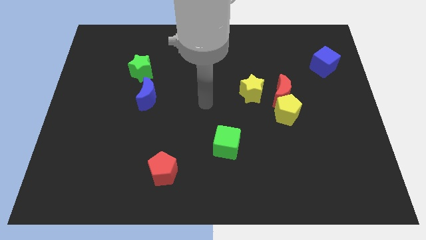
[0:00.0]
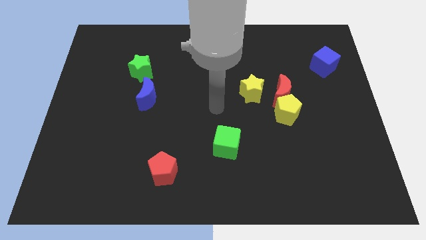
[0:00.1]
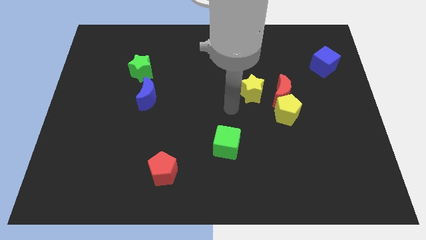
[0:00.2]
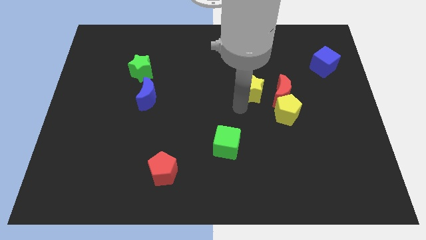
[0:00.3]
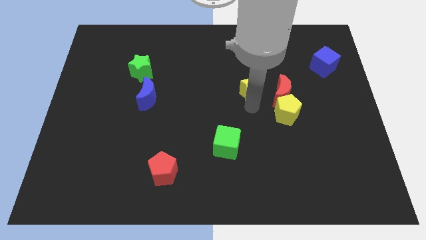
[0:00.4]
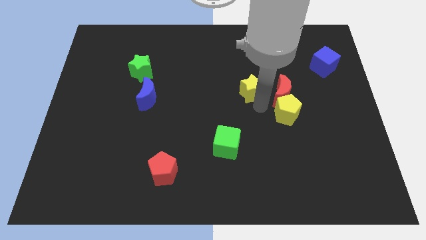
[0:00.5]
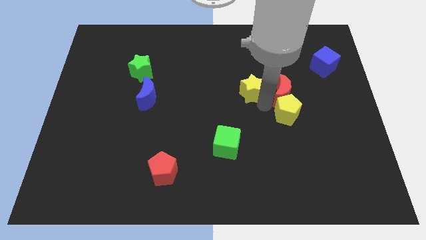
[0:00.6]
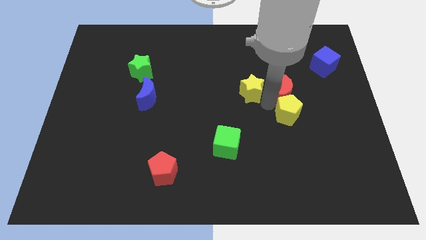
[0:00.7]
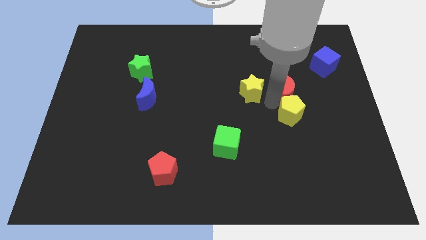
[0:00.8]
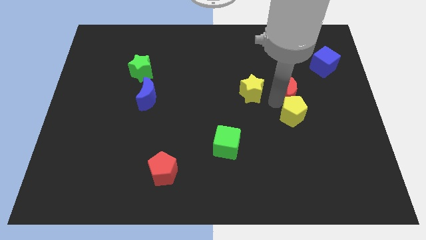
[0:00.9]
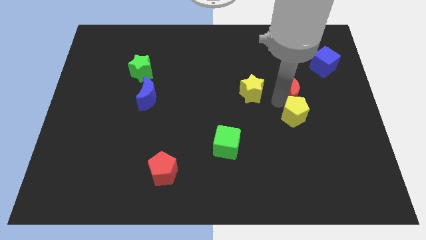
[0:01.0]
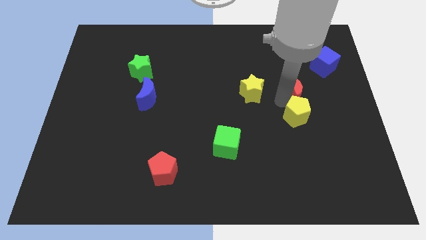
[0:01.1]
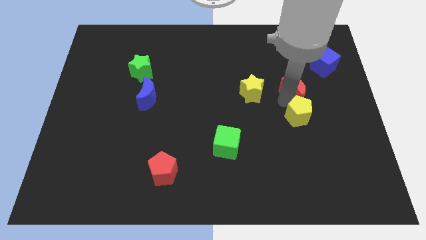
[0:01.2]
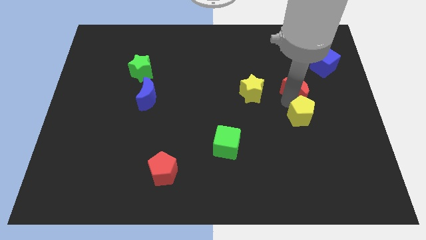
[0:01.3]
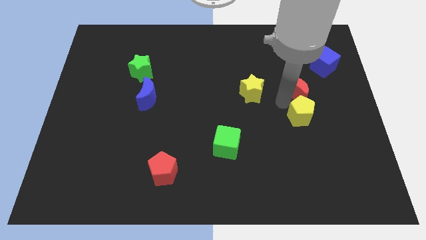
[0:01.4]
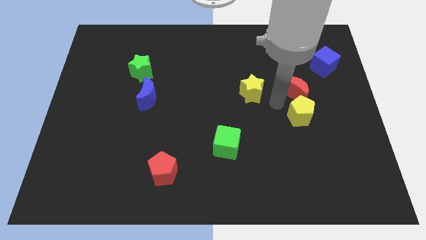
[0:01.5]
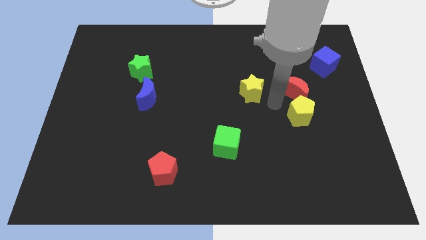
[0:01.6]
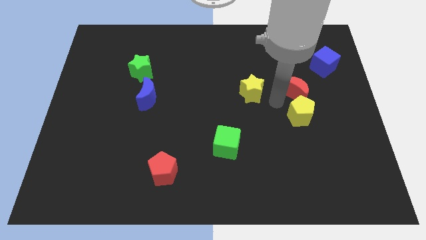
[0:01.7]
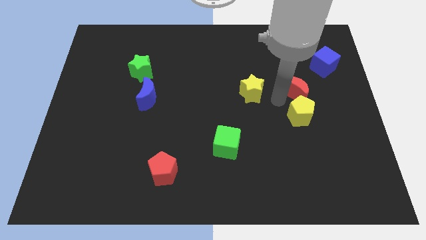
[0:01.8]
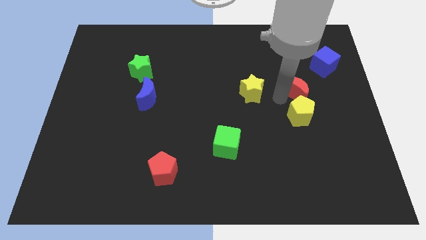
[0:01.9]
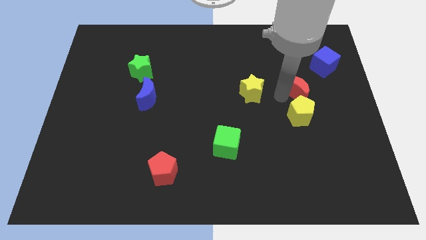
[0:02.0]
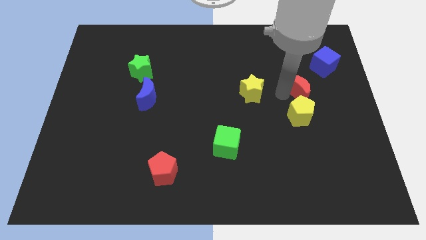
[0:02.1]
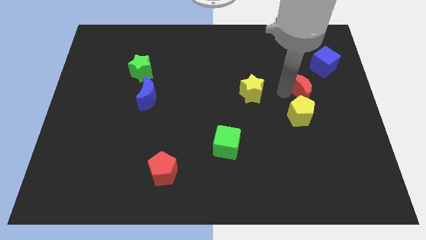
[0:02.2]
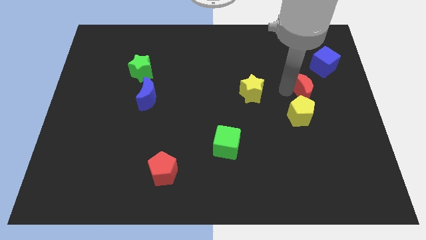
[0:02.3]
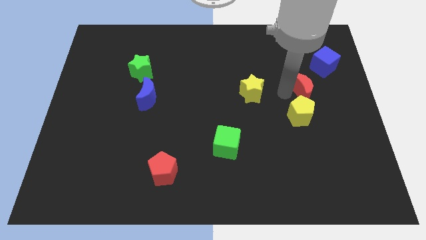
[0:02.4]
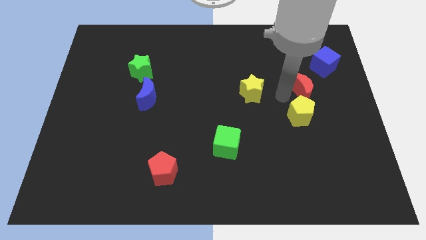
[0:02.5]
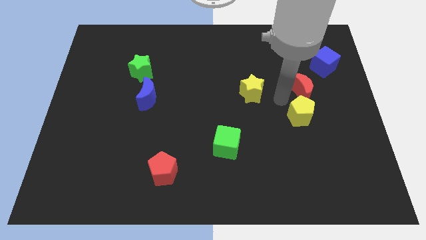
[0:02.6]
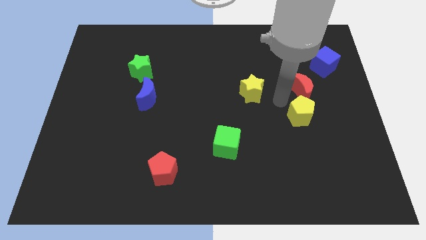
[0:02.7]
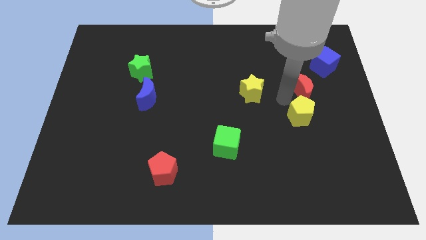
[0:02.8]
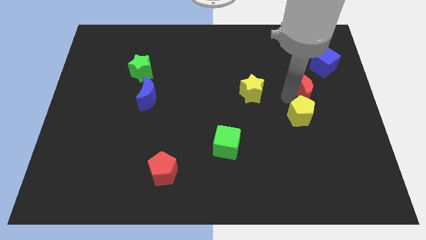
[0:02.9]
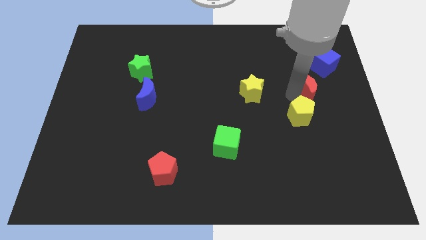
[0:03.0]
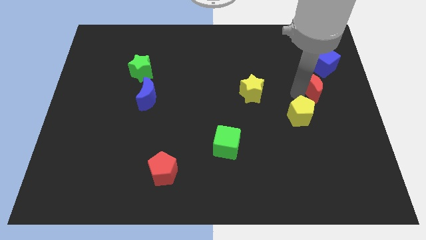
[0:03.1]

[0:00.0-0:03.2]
move the red moon away from the yellow pentagon and yellow star

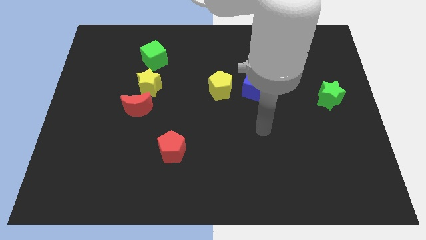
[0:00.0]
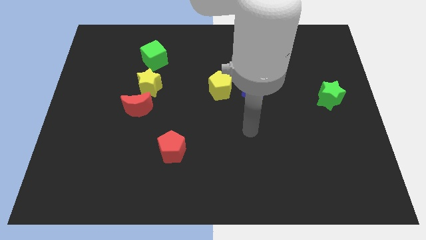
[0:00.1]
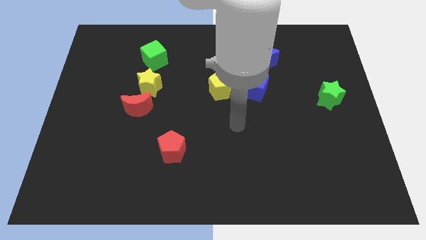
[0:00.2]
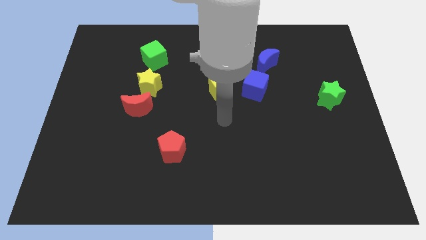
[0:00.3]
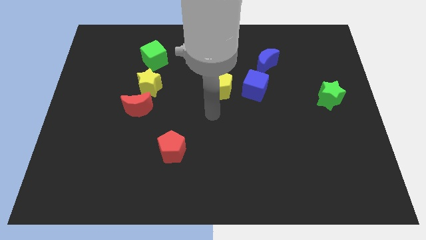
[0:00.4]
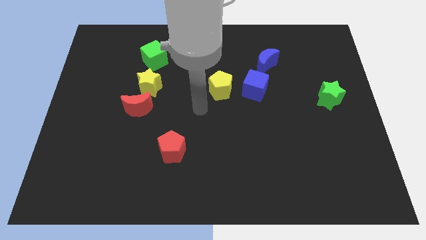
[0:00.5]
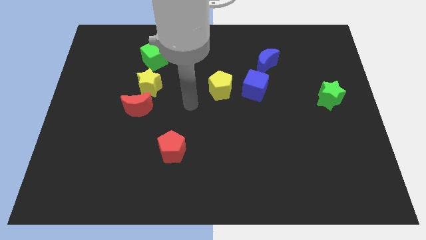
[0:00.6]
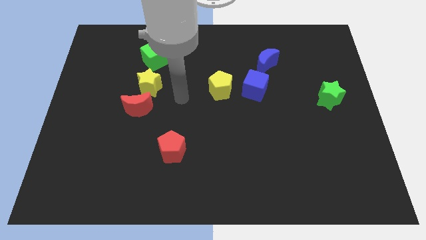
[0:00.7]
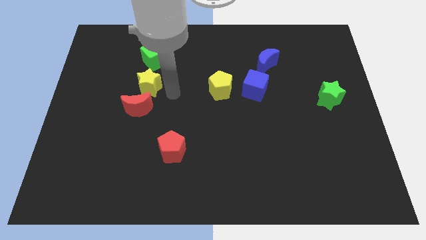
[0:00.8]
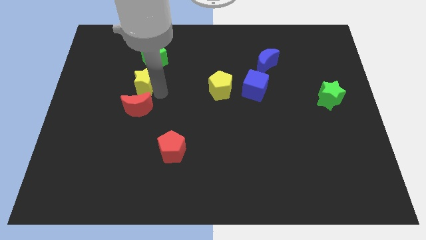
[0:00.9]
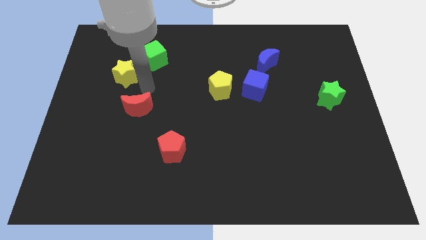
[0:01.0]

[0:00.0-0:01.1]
pull the red moon apart from the yellow star

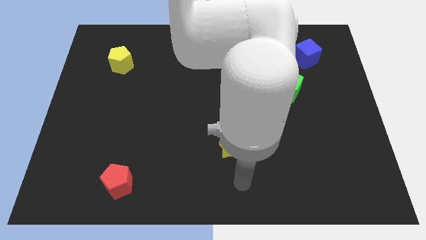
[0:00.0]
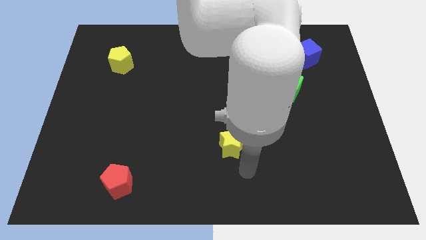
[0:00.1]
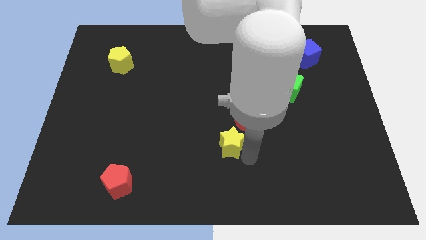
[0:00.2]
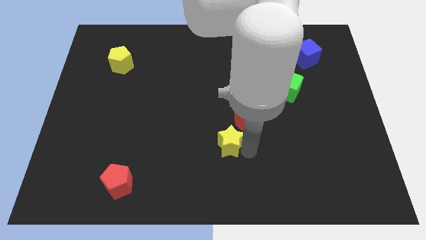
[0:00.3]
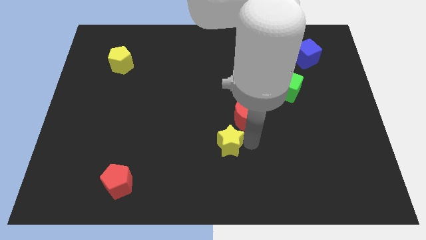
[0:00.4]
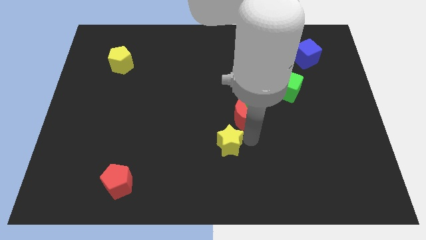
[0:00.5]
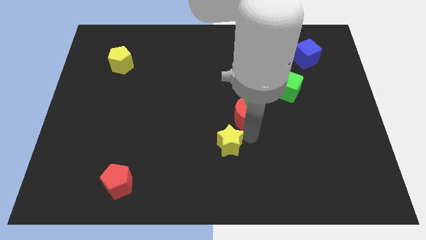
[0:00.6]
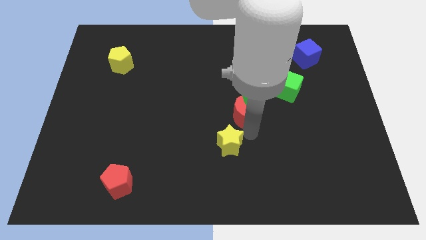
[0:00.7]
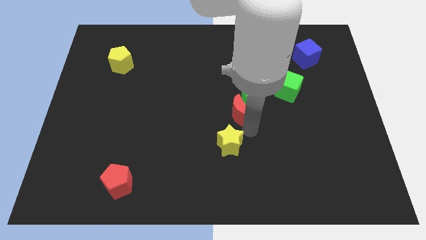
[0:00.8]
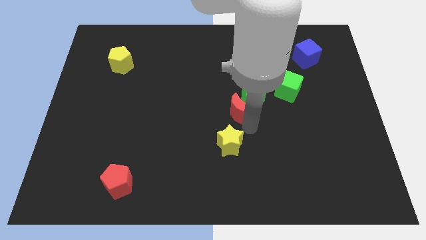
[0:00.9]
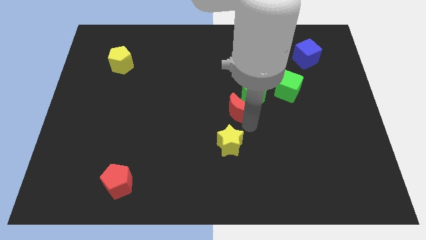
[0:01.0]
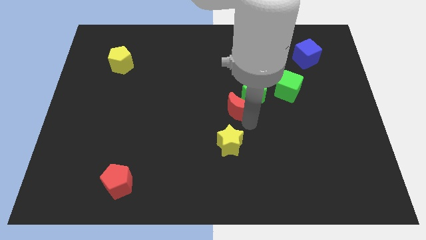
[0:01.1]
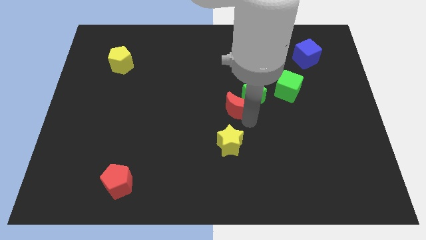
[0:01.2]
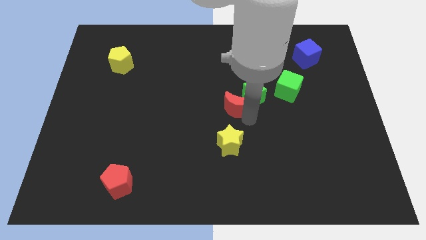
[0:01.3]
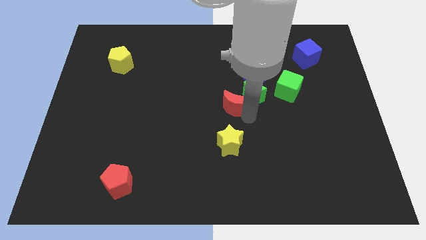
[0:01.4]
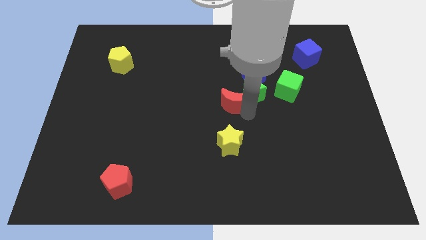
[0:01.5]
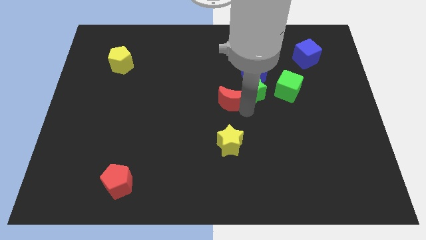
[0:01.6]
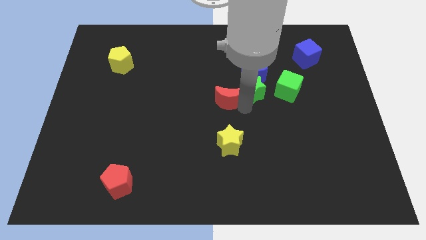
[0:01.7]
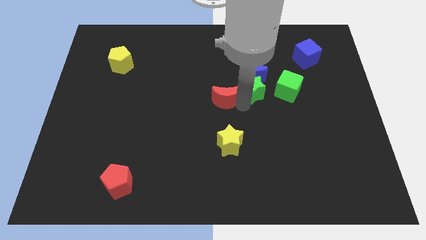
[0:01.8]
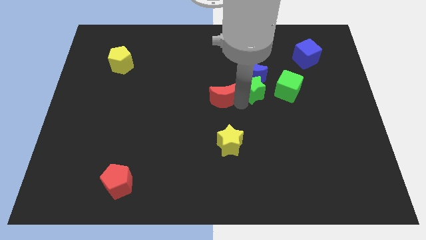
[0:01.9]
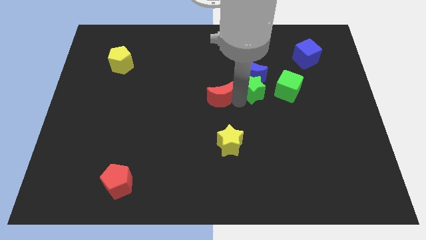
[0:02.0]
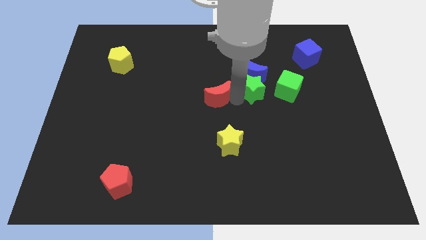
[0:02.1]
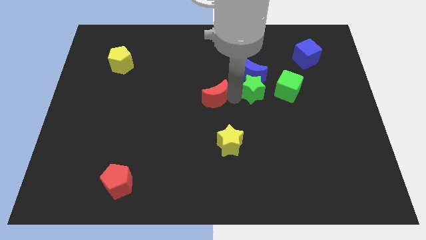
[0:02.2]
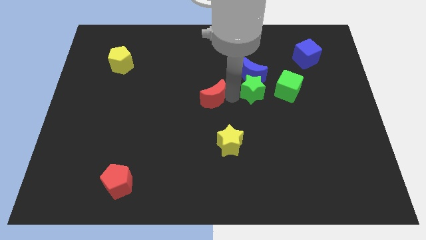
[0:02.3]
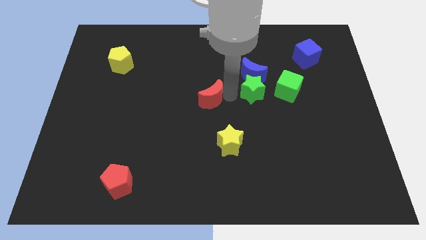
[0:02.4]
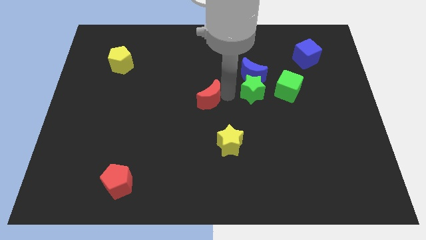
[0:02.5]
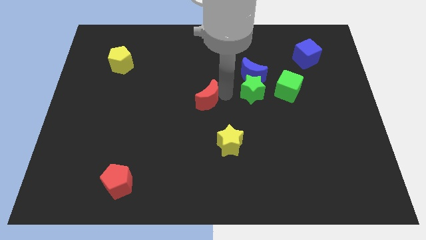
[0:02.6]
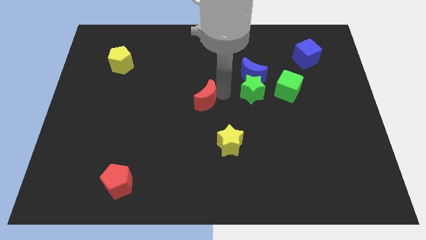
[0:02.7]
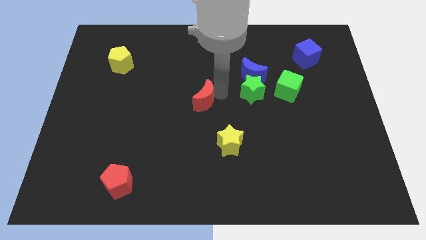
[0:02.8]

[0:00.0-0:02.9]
pull the red moon apart from the green star and yellow star

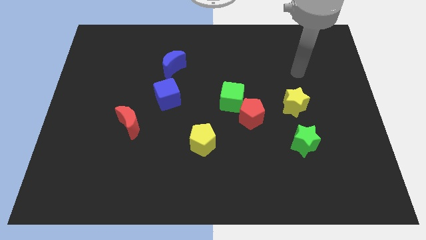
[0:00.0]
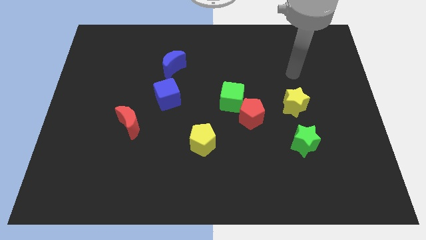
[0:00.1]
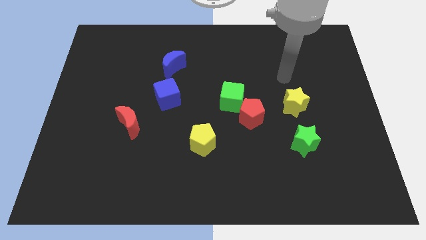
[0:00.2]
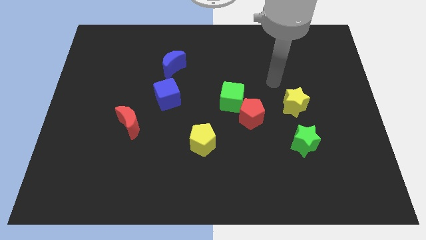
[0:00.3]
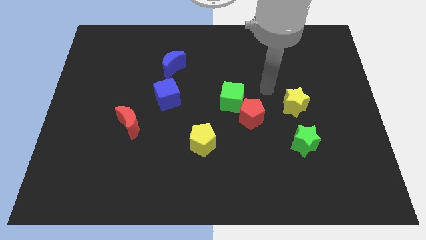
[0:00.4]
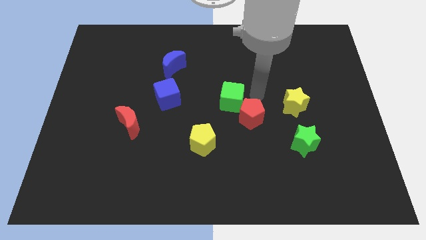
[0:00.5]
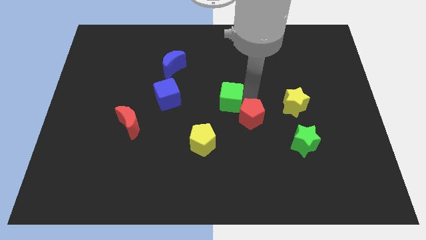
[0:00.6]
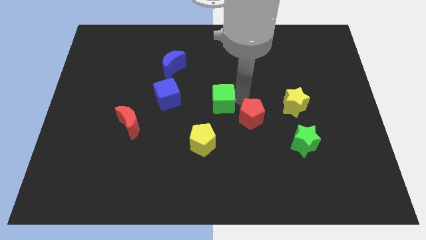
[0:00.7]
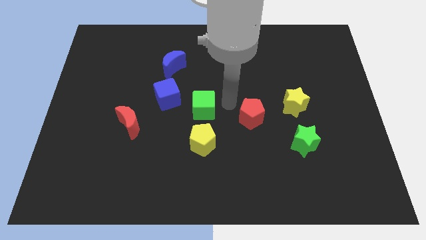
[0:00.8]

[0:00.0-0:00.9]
pull the red pentagon apart from the green cube

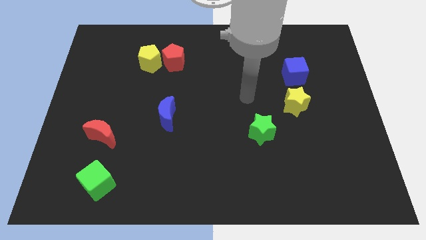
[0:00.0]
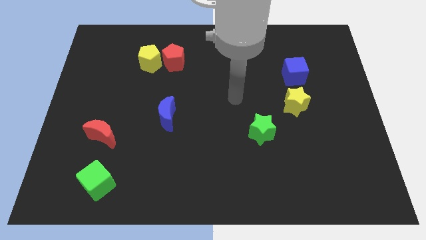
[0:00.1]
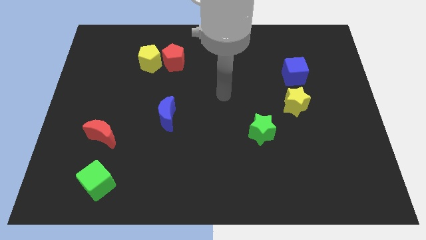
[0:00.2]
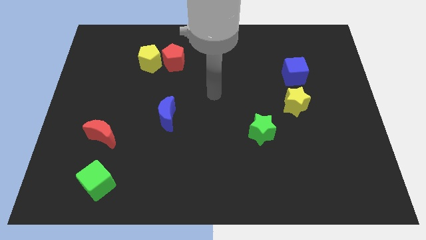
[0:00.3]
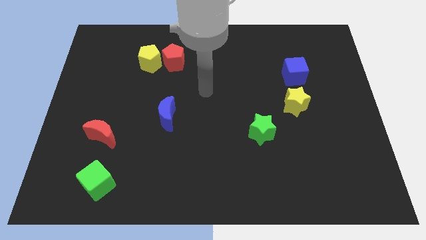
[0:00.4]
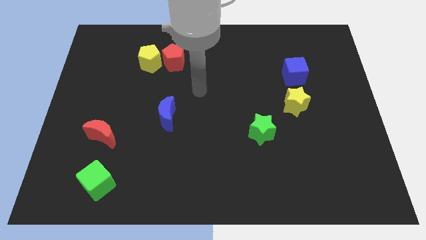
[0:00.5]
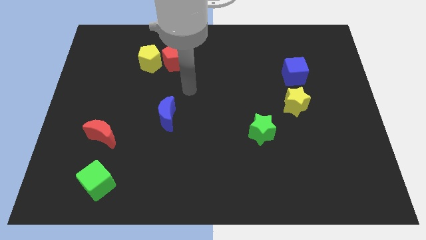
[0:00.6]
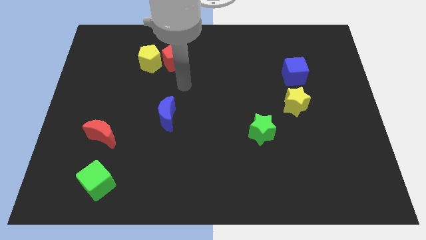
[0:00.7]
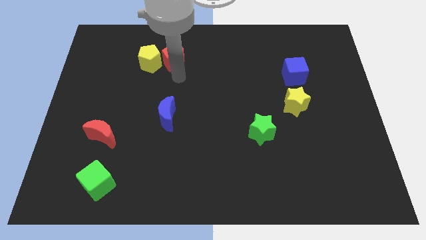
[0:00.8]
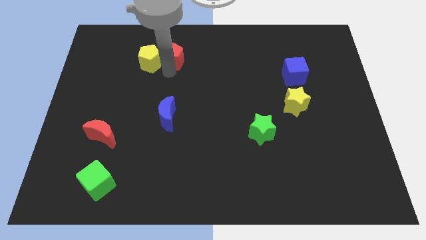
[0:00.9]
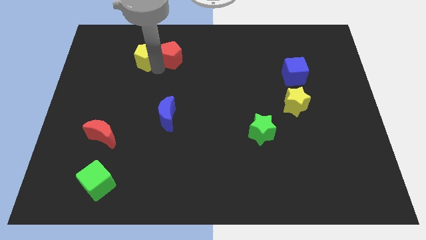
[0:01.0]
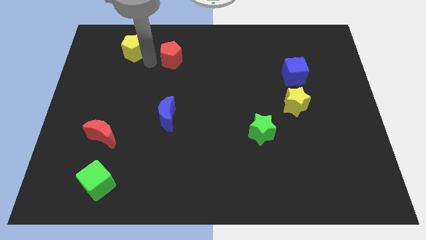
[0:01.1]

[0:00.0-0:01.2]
separate the red pentagon from the yellow pentagon
